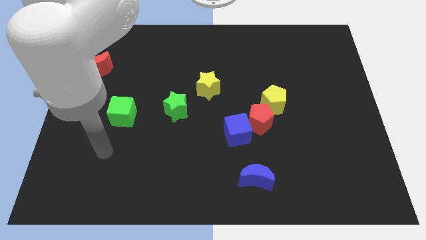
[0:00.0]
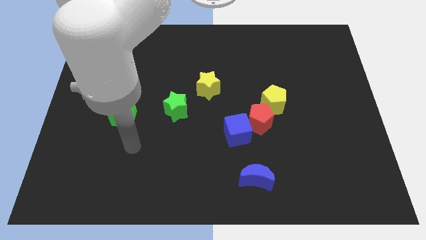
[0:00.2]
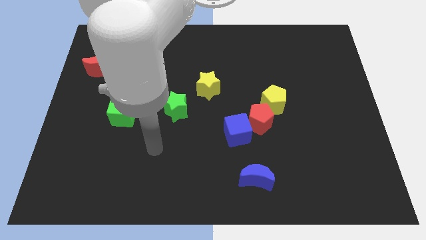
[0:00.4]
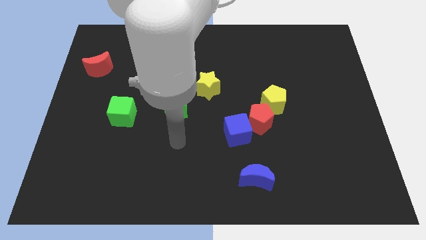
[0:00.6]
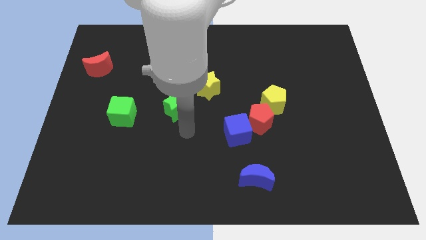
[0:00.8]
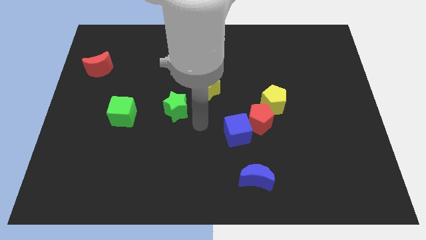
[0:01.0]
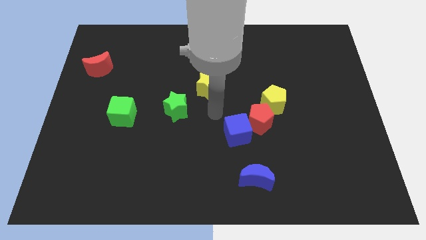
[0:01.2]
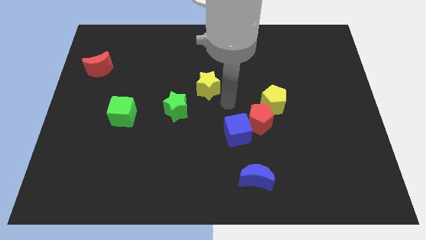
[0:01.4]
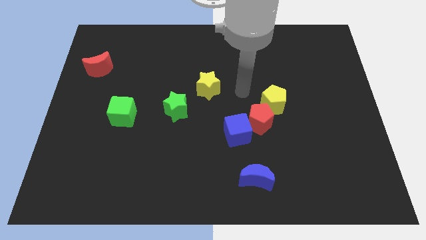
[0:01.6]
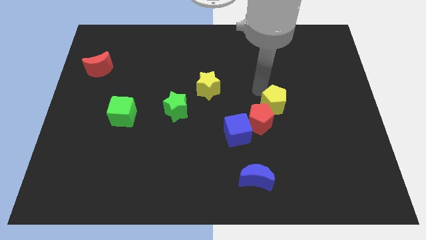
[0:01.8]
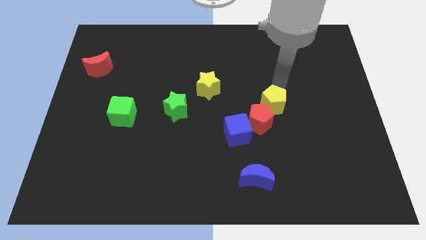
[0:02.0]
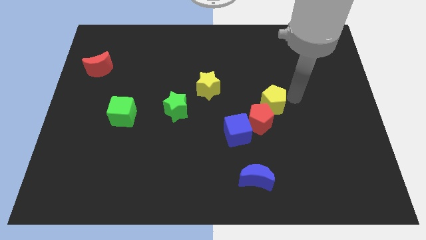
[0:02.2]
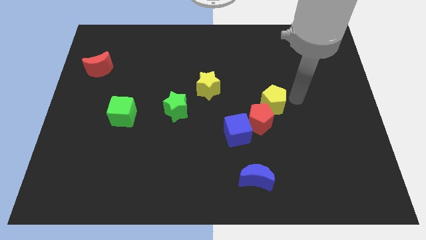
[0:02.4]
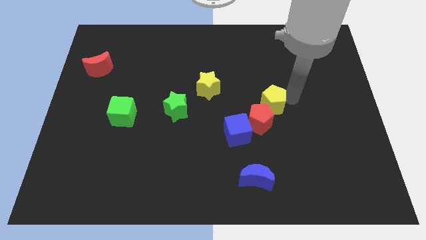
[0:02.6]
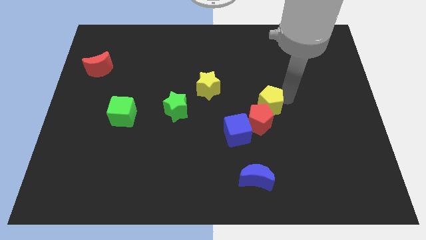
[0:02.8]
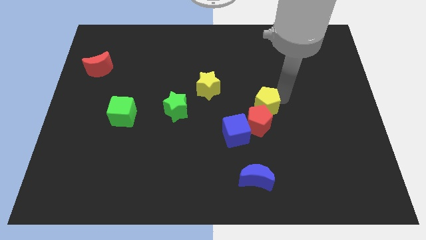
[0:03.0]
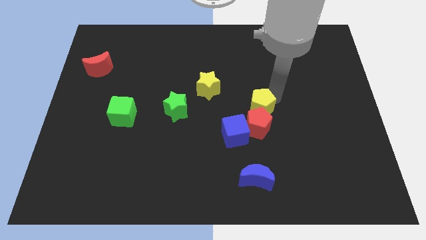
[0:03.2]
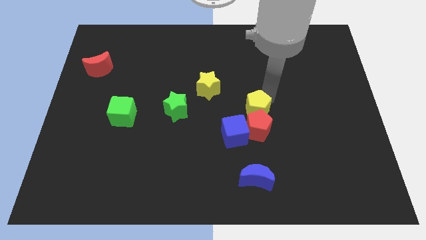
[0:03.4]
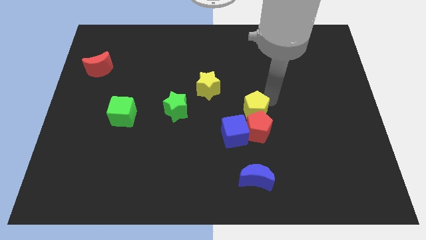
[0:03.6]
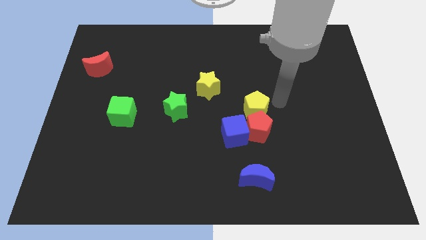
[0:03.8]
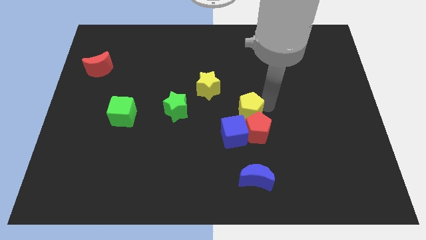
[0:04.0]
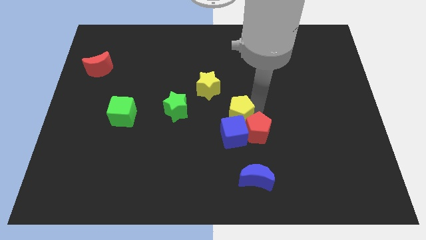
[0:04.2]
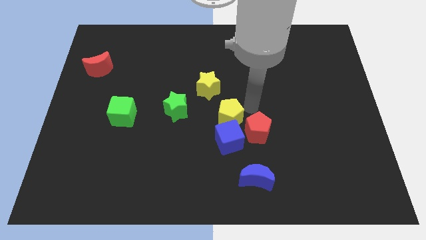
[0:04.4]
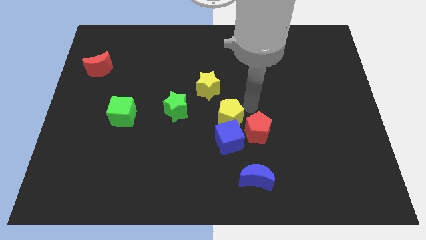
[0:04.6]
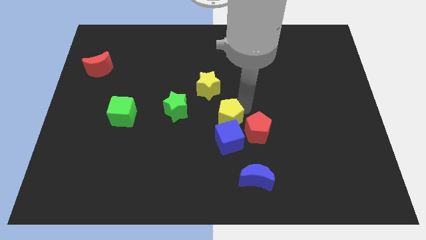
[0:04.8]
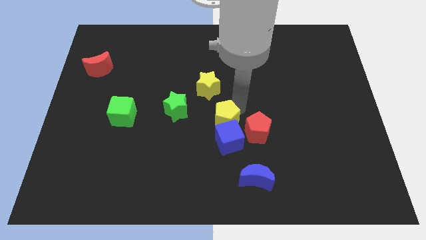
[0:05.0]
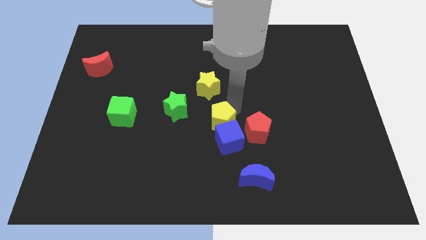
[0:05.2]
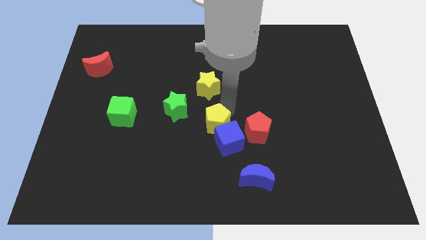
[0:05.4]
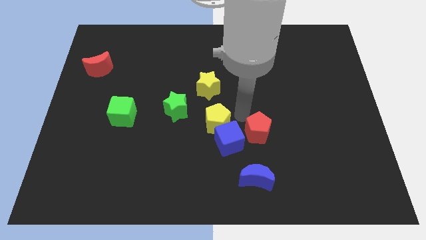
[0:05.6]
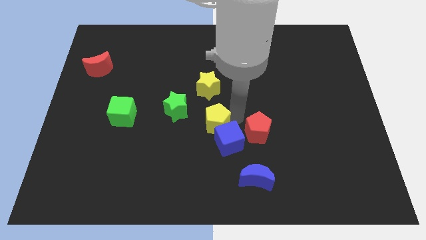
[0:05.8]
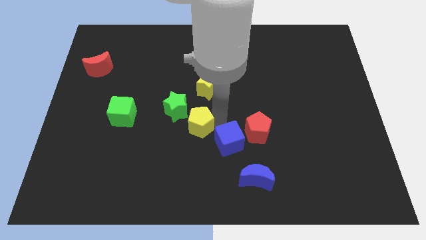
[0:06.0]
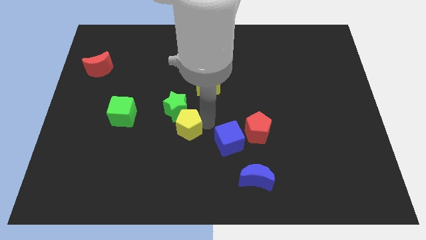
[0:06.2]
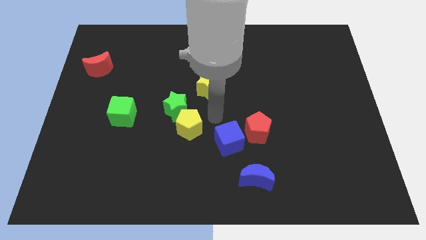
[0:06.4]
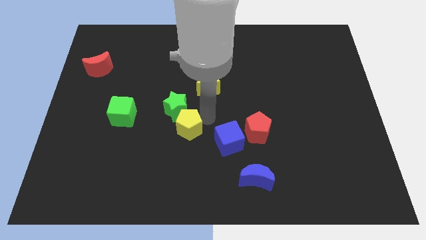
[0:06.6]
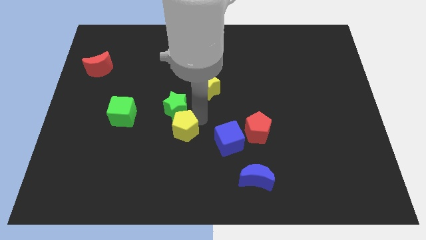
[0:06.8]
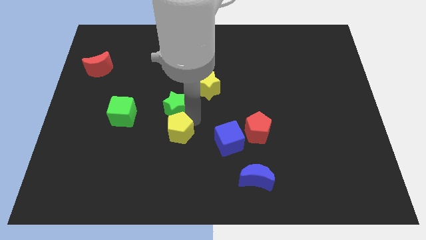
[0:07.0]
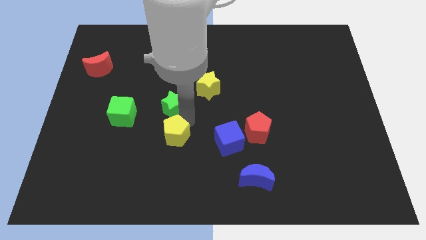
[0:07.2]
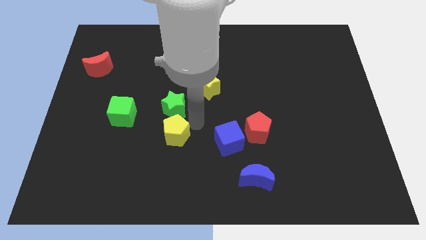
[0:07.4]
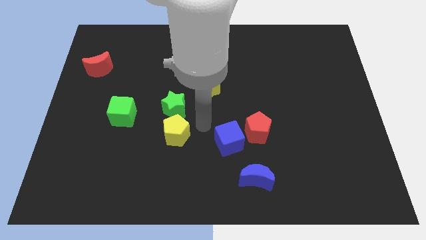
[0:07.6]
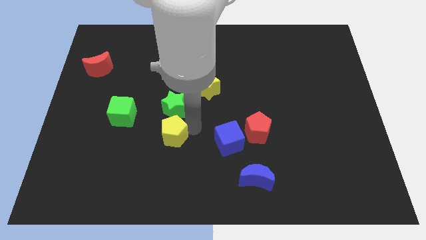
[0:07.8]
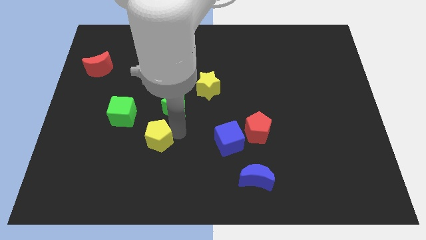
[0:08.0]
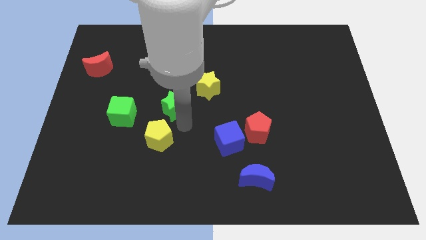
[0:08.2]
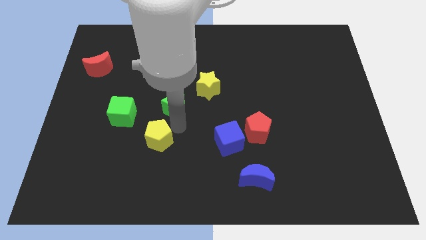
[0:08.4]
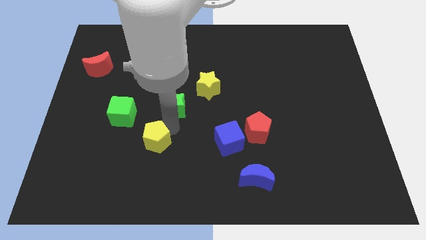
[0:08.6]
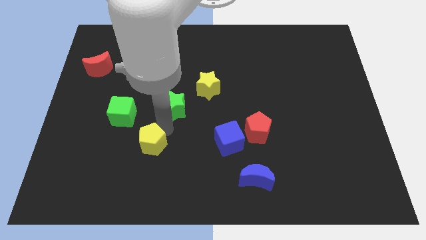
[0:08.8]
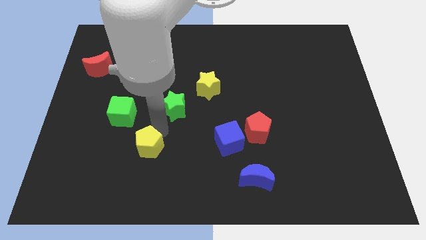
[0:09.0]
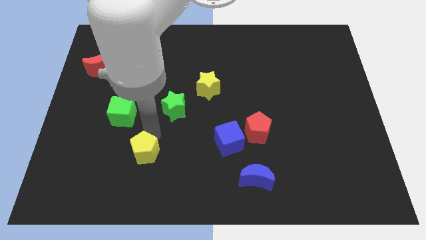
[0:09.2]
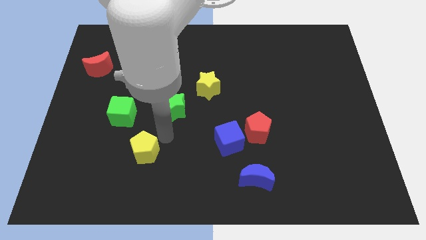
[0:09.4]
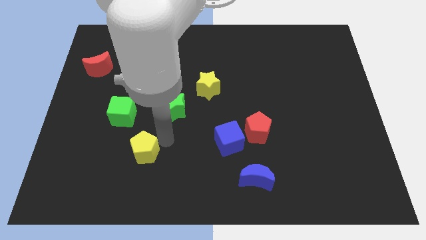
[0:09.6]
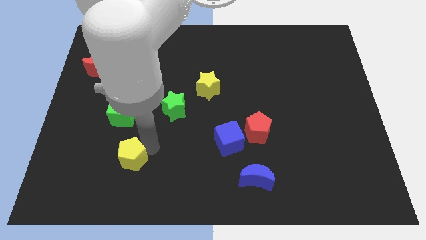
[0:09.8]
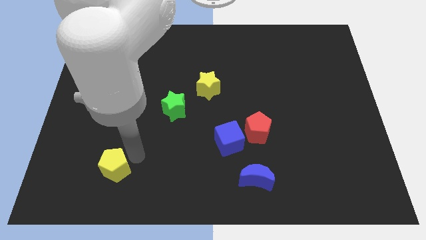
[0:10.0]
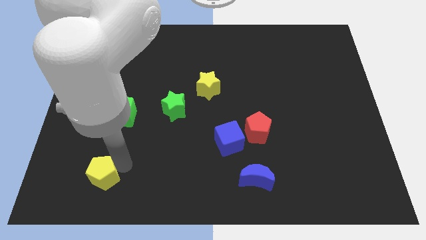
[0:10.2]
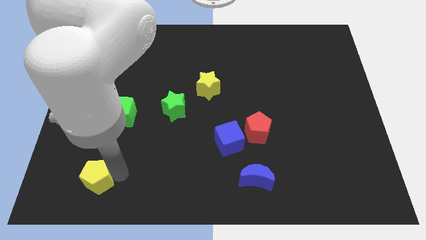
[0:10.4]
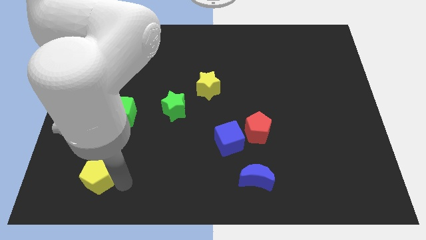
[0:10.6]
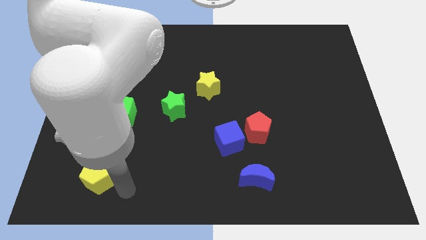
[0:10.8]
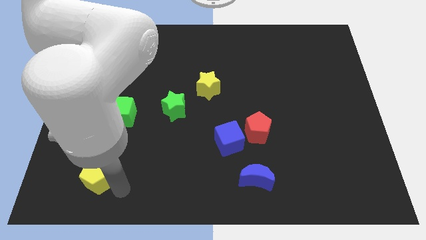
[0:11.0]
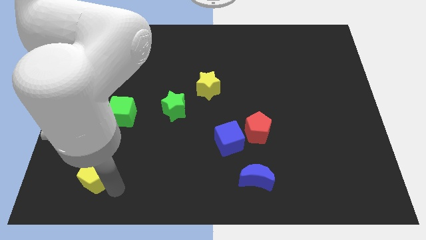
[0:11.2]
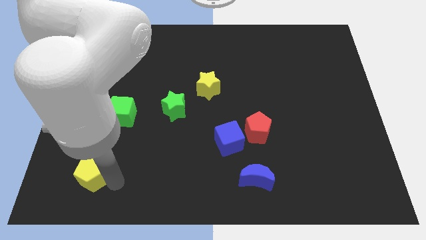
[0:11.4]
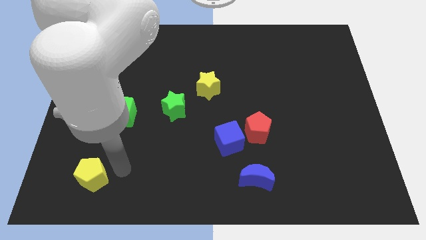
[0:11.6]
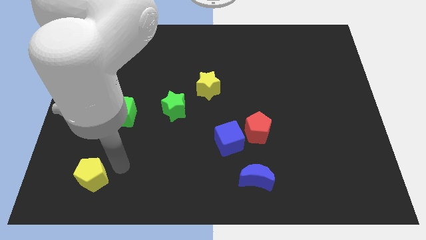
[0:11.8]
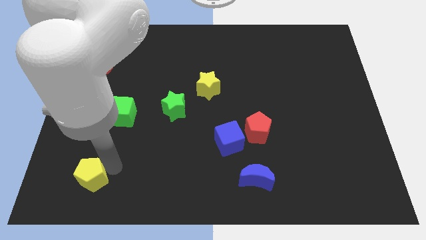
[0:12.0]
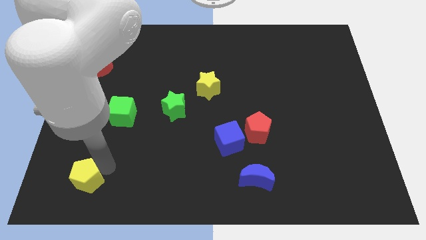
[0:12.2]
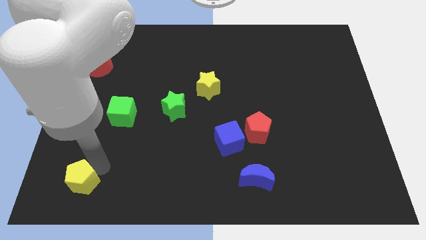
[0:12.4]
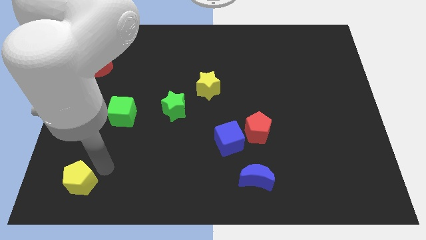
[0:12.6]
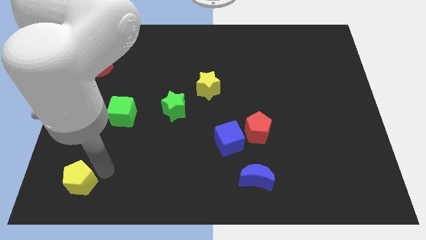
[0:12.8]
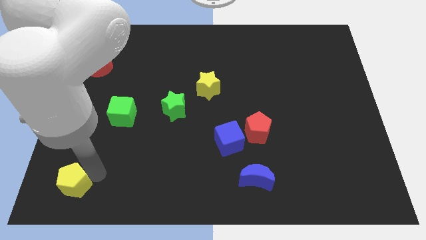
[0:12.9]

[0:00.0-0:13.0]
move the yellow pentagon to the bottom left of the board
